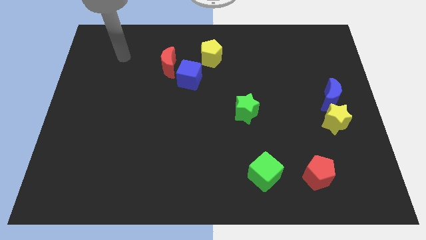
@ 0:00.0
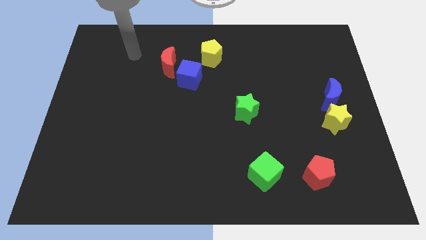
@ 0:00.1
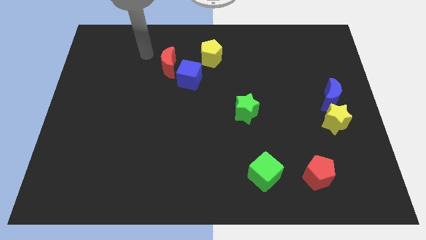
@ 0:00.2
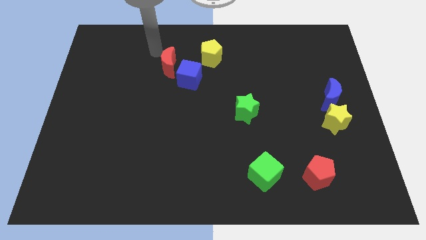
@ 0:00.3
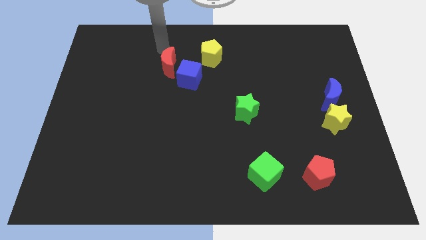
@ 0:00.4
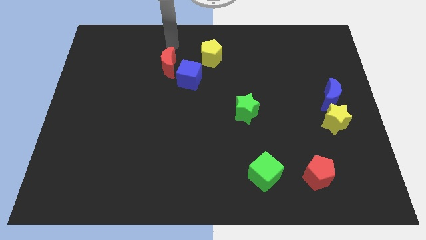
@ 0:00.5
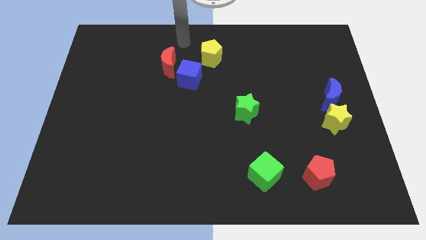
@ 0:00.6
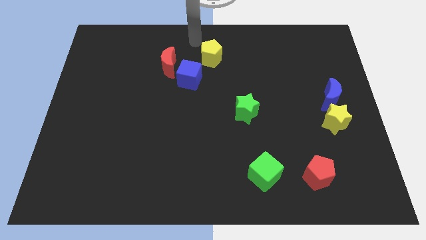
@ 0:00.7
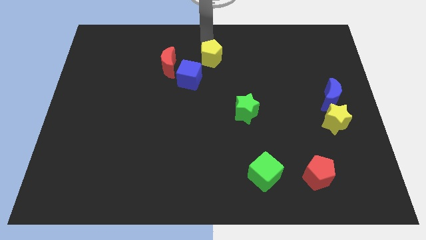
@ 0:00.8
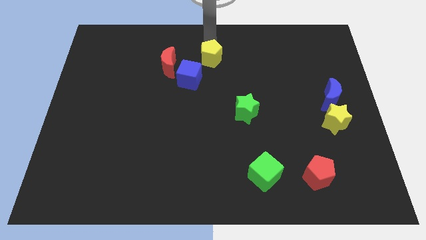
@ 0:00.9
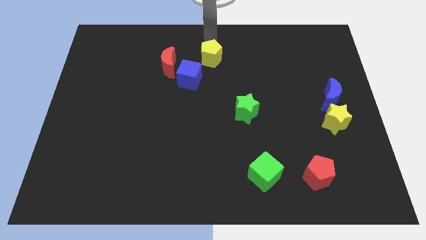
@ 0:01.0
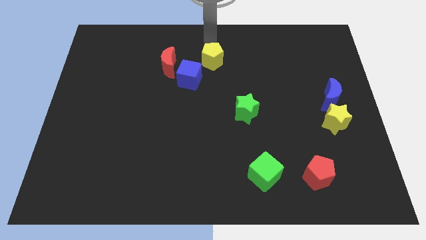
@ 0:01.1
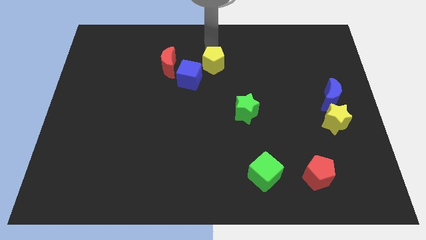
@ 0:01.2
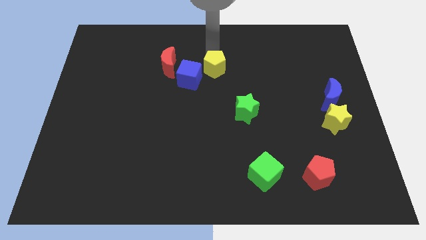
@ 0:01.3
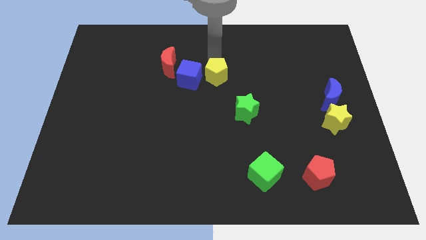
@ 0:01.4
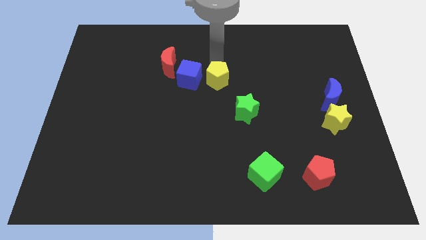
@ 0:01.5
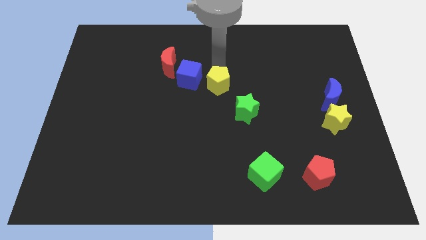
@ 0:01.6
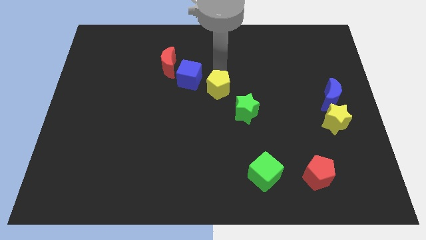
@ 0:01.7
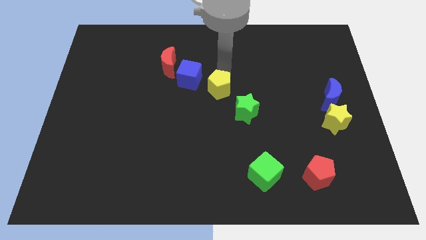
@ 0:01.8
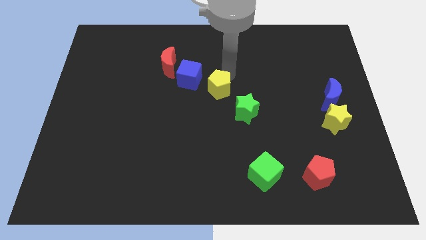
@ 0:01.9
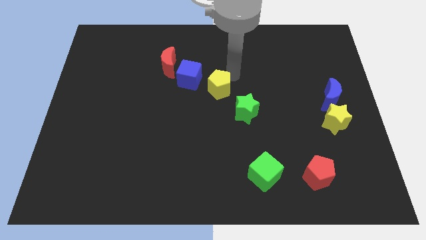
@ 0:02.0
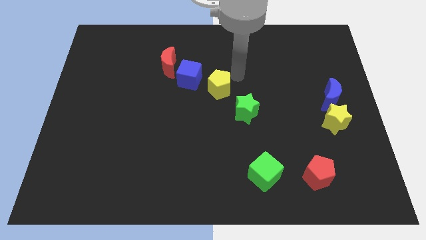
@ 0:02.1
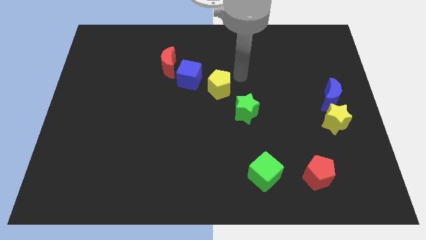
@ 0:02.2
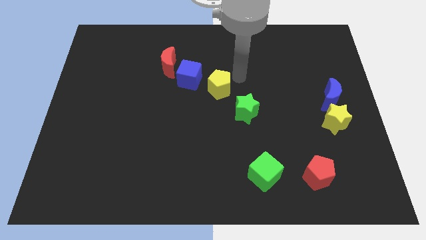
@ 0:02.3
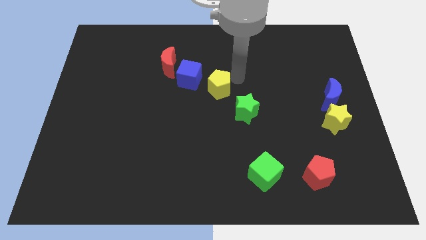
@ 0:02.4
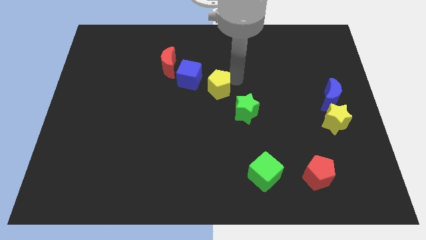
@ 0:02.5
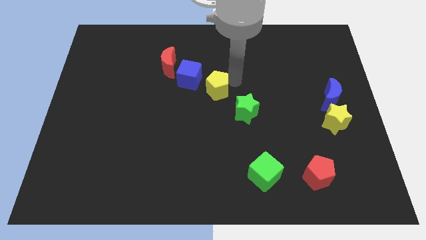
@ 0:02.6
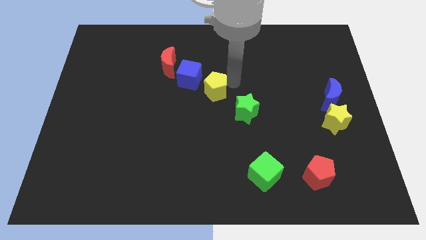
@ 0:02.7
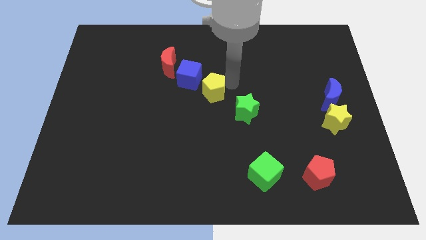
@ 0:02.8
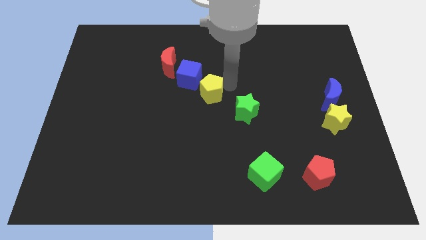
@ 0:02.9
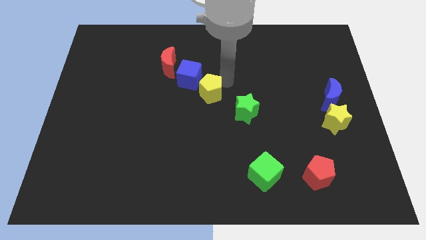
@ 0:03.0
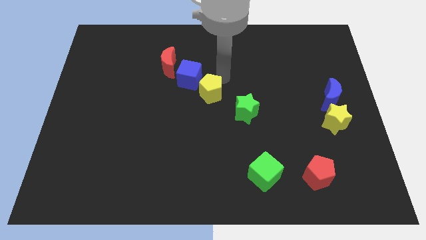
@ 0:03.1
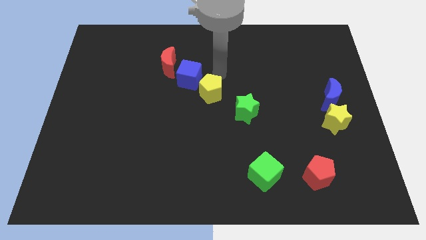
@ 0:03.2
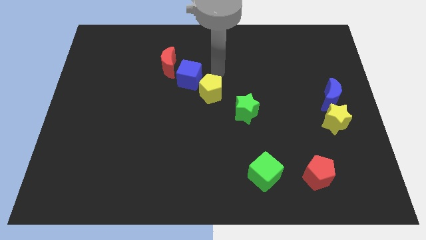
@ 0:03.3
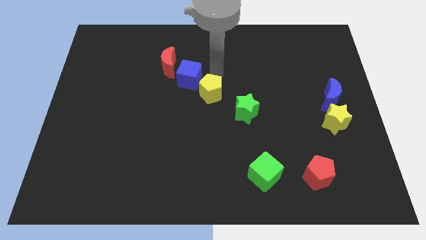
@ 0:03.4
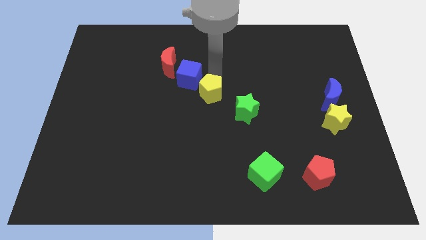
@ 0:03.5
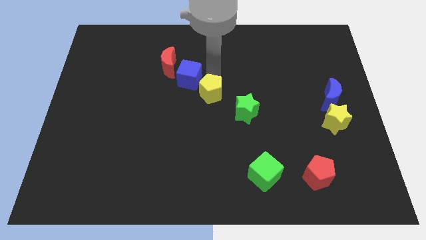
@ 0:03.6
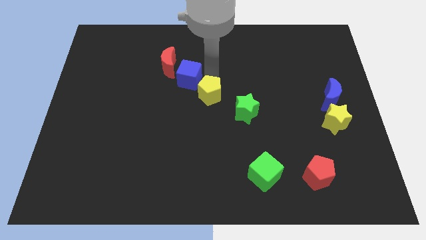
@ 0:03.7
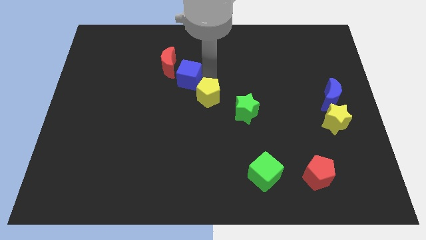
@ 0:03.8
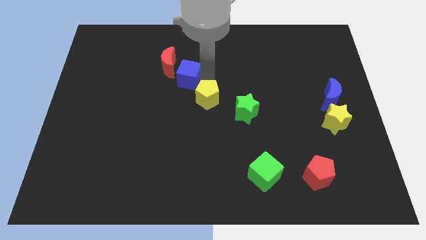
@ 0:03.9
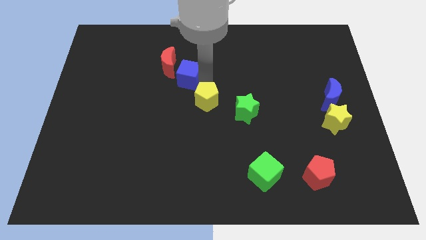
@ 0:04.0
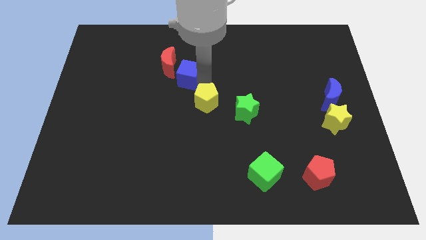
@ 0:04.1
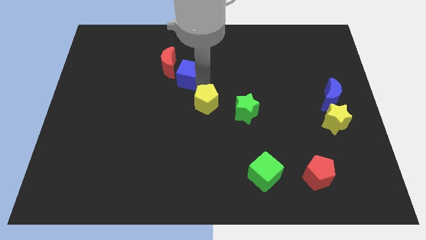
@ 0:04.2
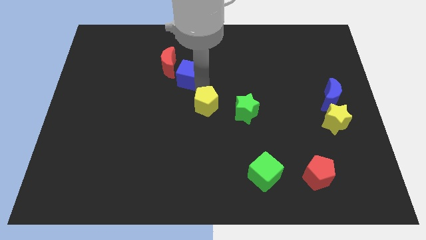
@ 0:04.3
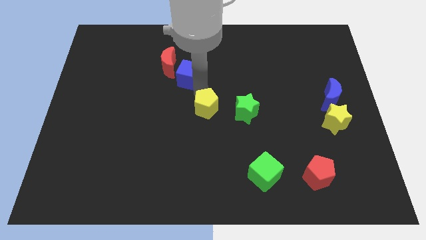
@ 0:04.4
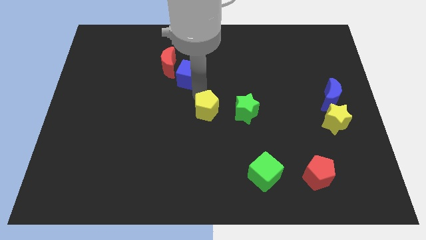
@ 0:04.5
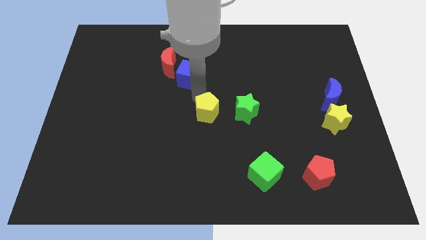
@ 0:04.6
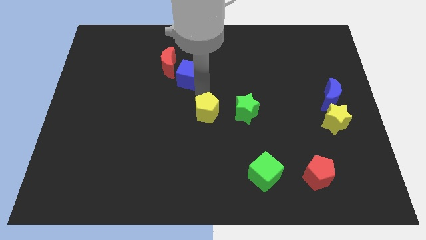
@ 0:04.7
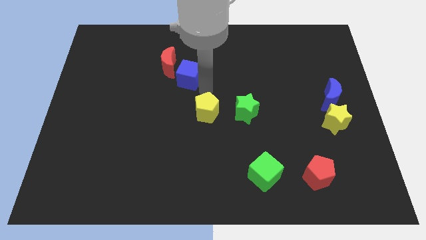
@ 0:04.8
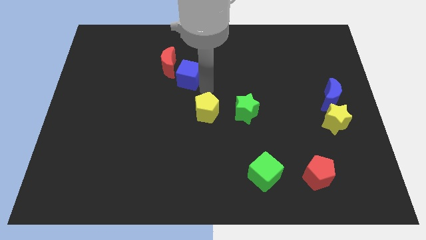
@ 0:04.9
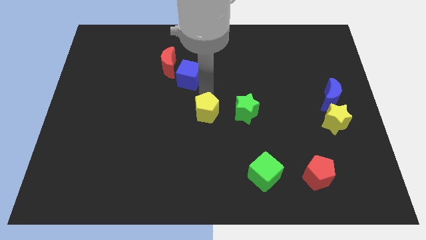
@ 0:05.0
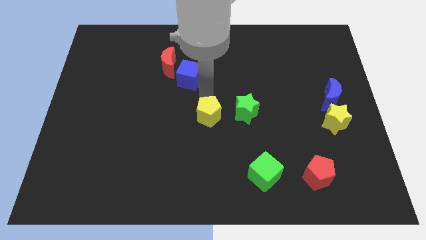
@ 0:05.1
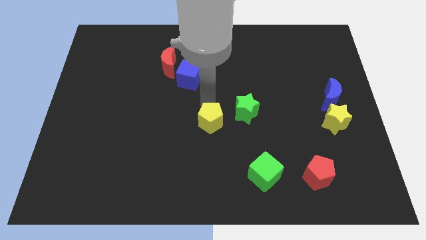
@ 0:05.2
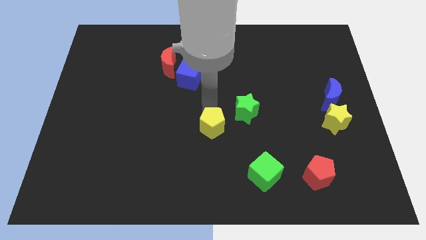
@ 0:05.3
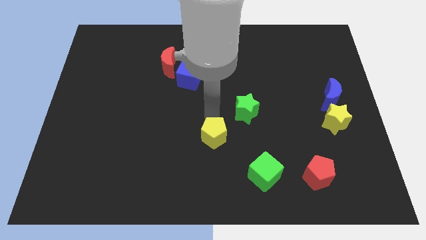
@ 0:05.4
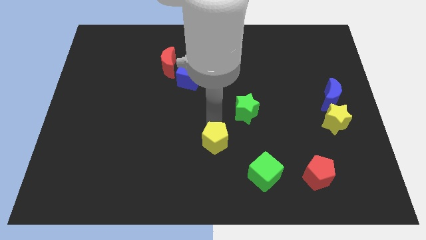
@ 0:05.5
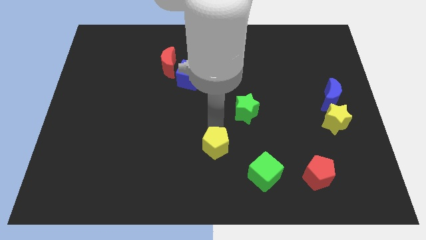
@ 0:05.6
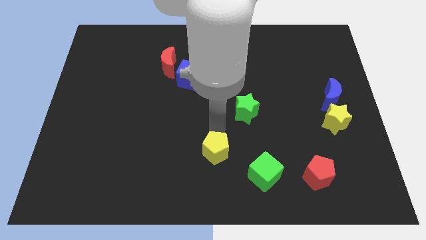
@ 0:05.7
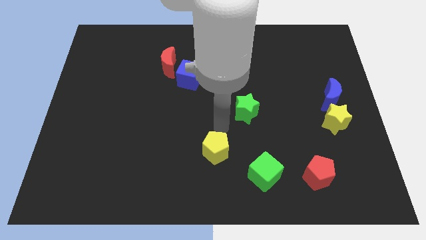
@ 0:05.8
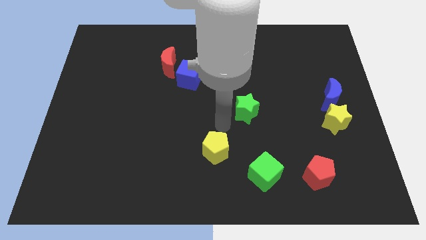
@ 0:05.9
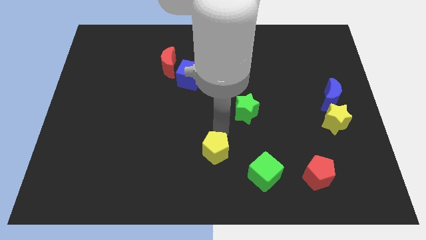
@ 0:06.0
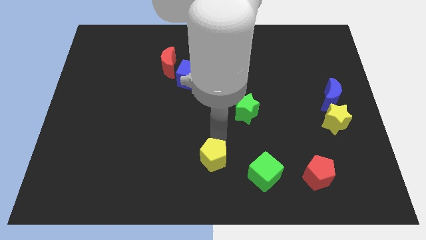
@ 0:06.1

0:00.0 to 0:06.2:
push the yellow pentagon to the bottom side
